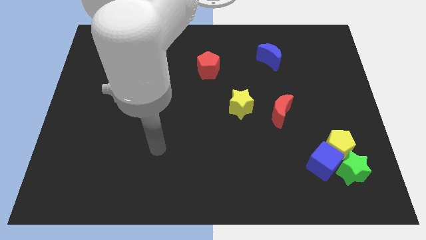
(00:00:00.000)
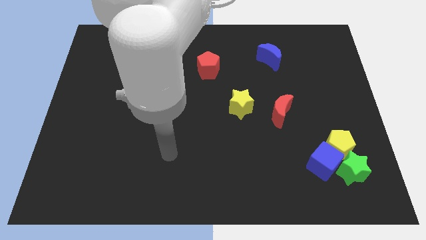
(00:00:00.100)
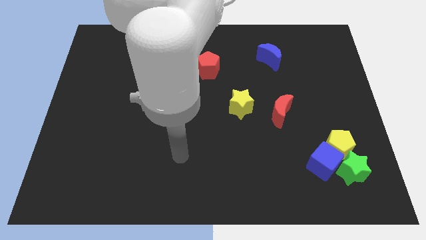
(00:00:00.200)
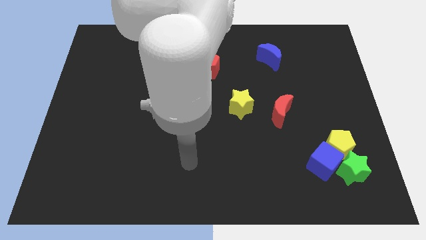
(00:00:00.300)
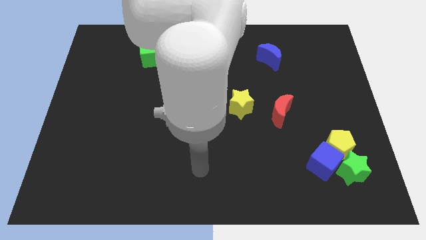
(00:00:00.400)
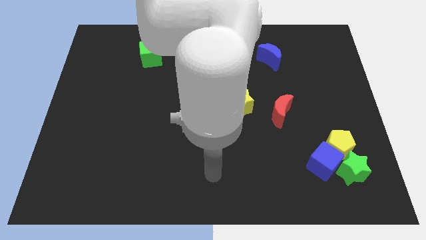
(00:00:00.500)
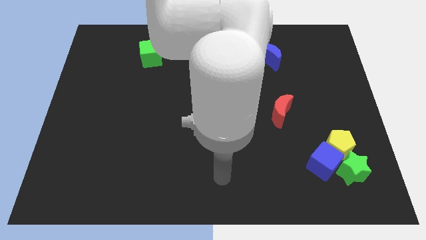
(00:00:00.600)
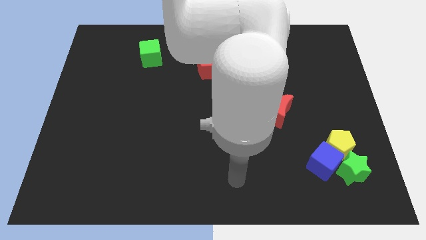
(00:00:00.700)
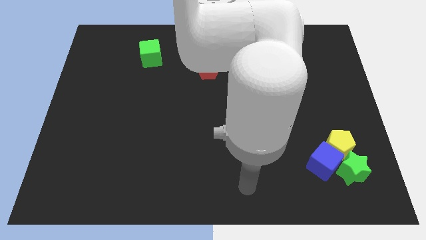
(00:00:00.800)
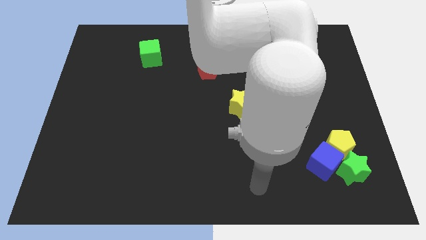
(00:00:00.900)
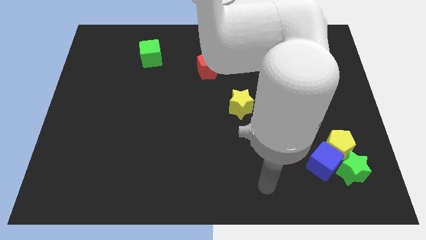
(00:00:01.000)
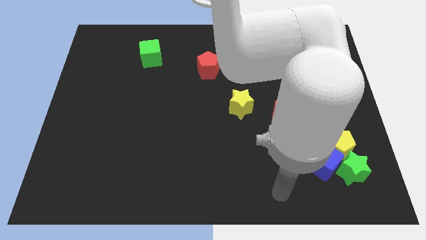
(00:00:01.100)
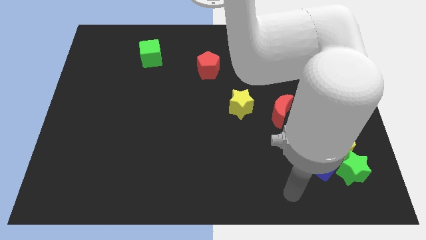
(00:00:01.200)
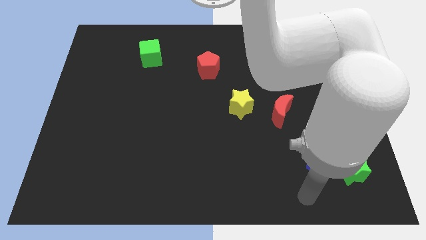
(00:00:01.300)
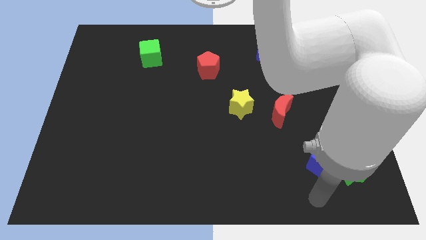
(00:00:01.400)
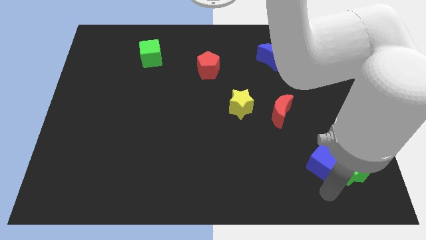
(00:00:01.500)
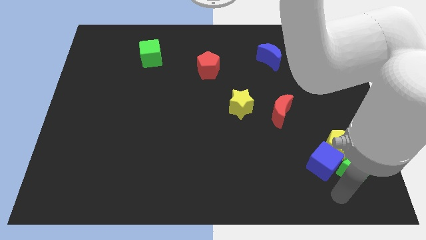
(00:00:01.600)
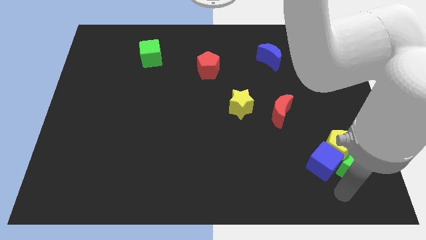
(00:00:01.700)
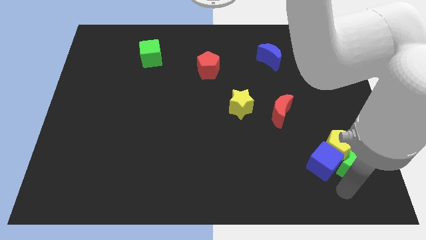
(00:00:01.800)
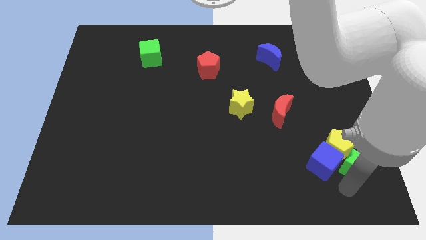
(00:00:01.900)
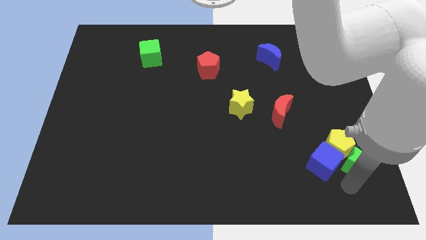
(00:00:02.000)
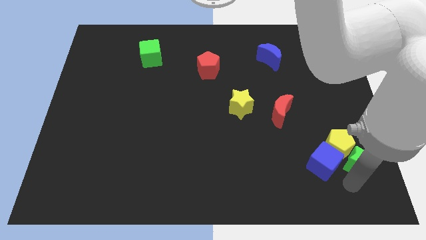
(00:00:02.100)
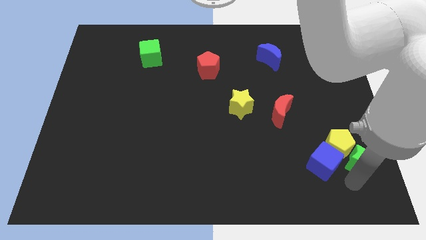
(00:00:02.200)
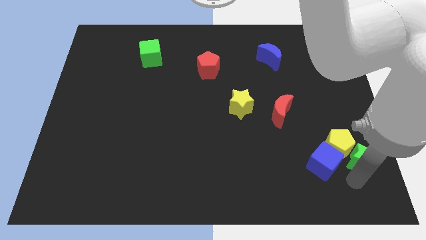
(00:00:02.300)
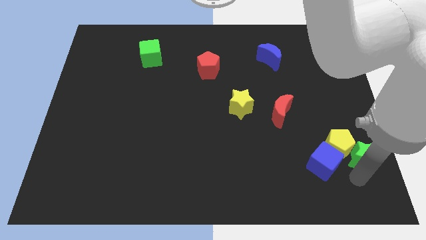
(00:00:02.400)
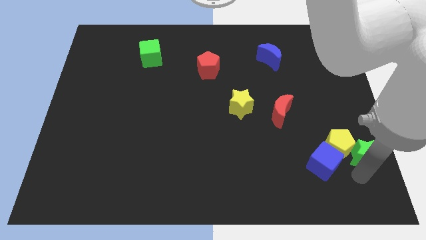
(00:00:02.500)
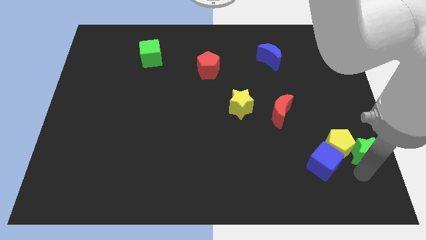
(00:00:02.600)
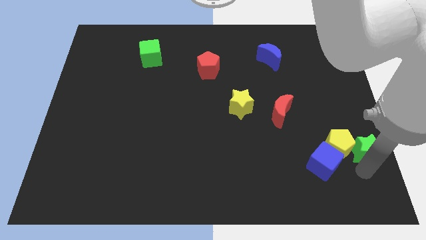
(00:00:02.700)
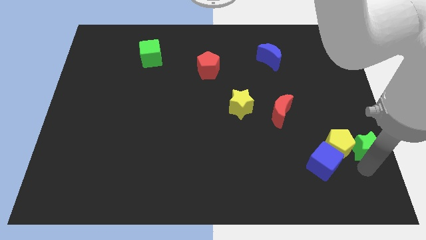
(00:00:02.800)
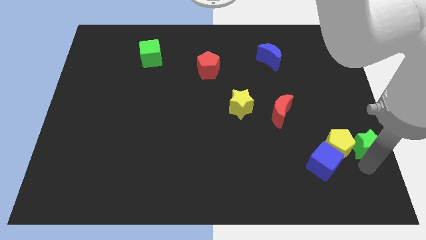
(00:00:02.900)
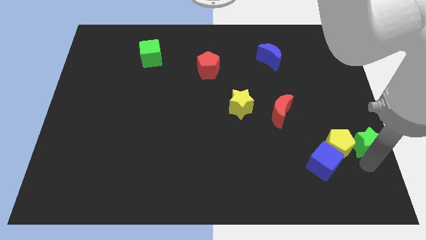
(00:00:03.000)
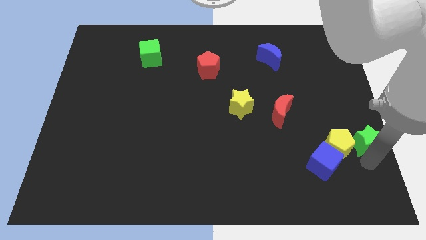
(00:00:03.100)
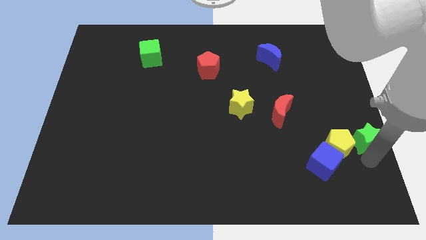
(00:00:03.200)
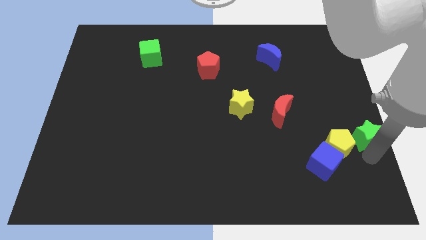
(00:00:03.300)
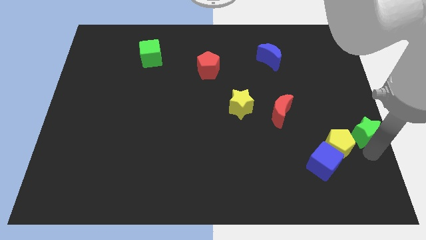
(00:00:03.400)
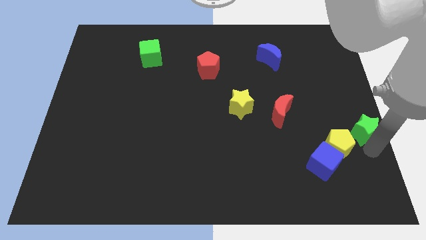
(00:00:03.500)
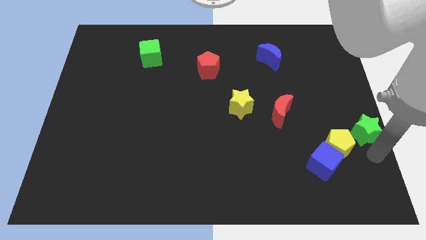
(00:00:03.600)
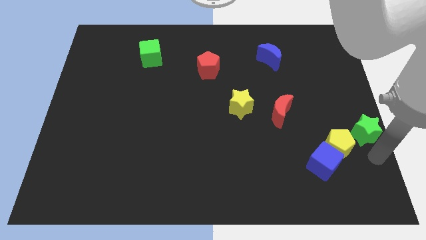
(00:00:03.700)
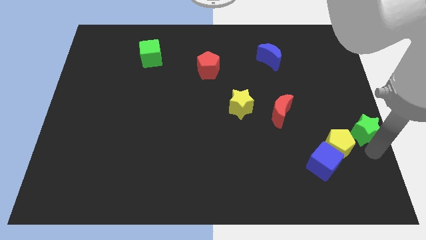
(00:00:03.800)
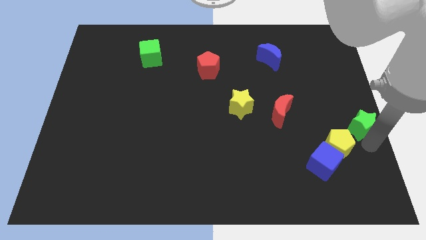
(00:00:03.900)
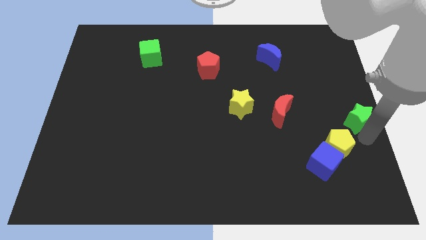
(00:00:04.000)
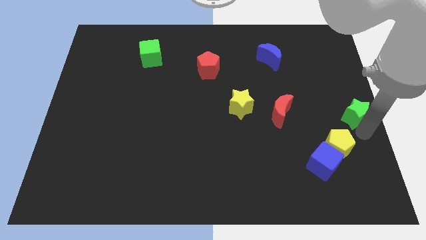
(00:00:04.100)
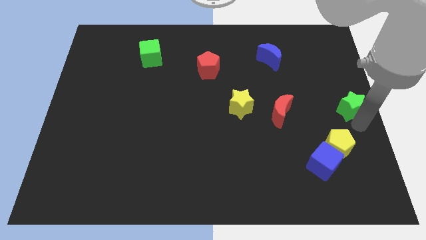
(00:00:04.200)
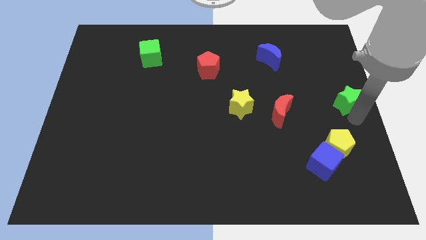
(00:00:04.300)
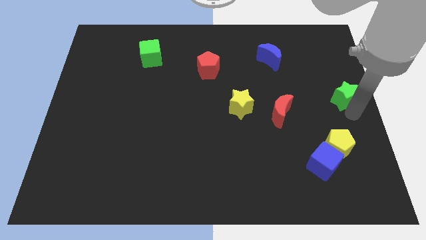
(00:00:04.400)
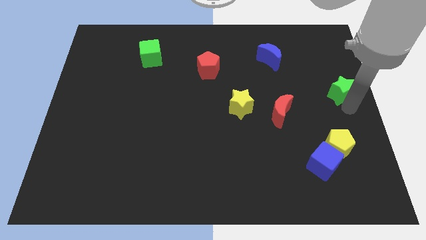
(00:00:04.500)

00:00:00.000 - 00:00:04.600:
slide the green star up

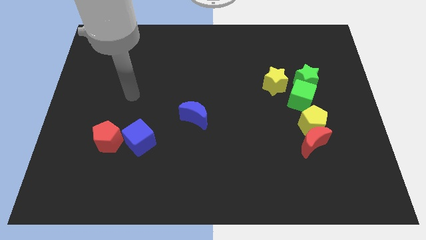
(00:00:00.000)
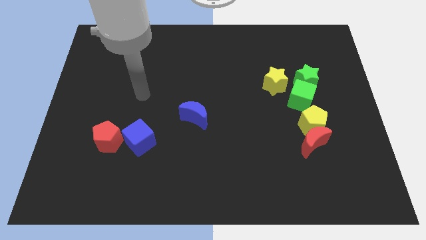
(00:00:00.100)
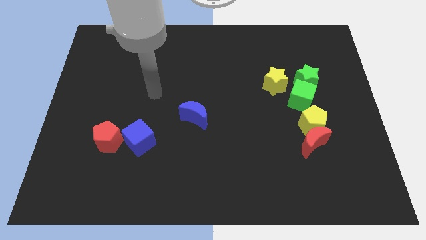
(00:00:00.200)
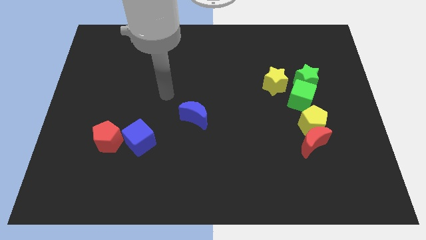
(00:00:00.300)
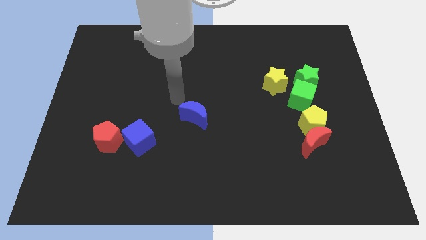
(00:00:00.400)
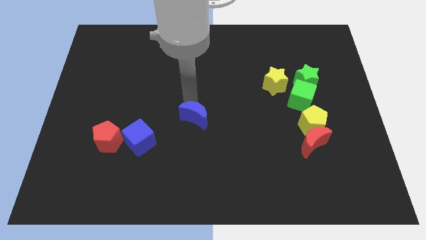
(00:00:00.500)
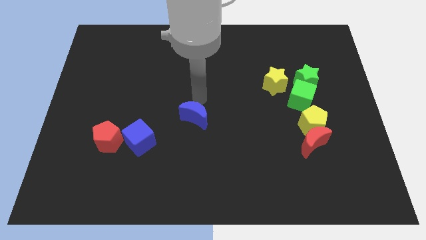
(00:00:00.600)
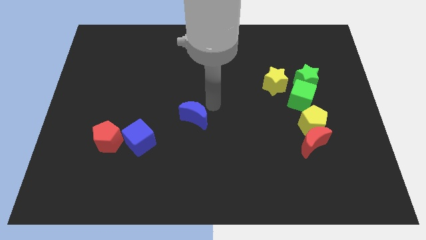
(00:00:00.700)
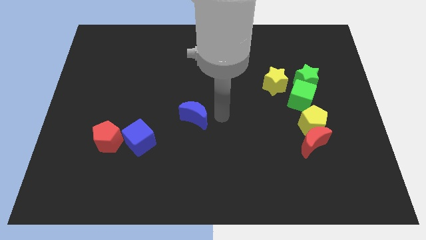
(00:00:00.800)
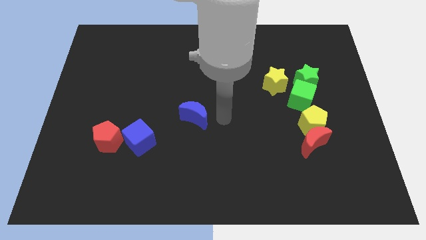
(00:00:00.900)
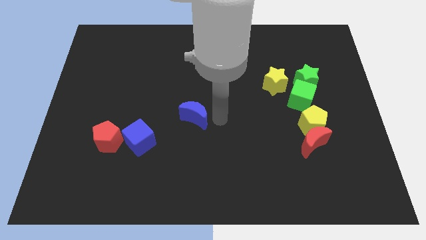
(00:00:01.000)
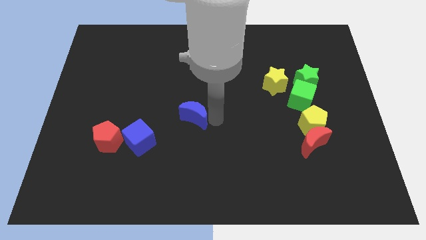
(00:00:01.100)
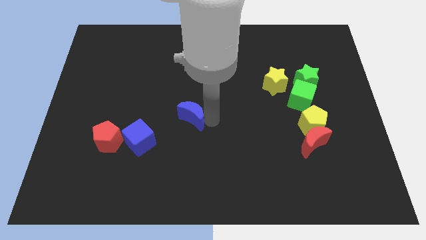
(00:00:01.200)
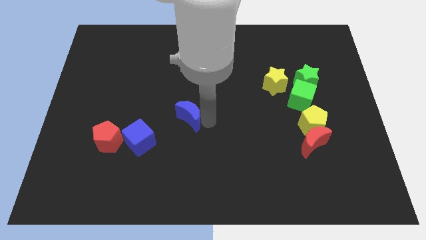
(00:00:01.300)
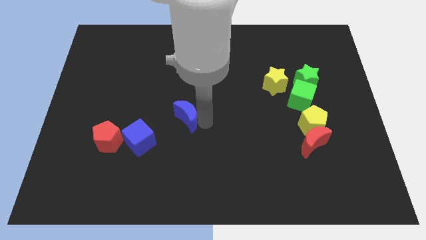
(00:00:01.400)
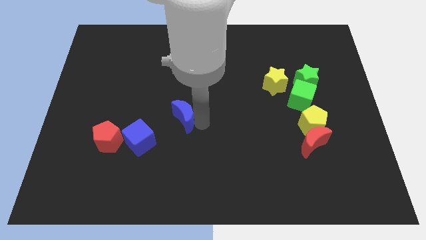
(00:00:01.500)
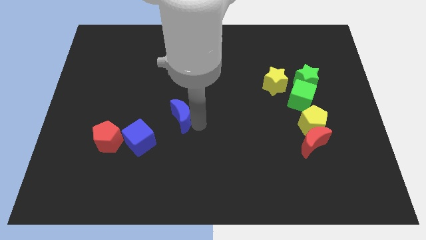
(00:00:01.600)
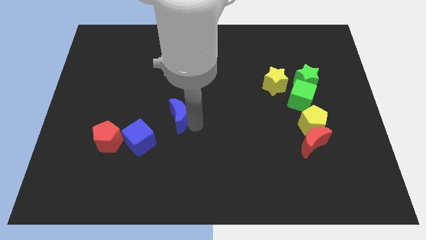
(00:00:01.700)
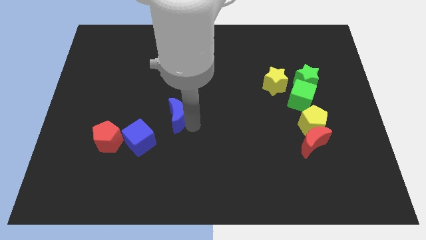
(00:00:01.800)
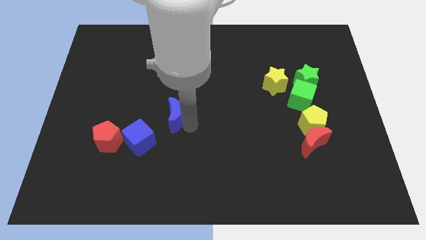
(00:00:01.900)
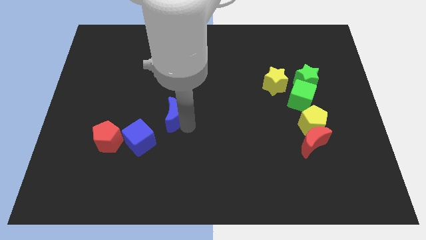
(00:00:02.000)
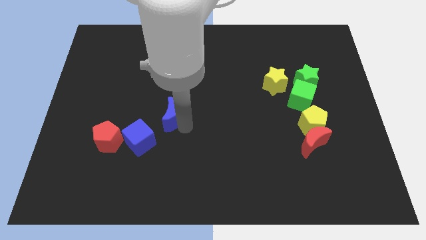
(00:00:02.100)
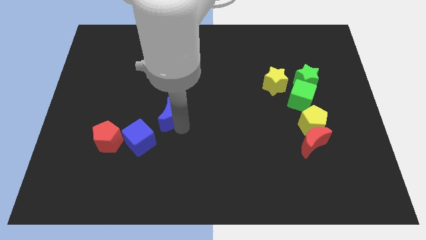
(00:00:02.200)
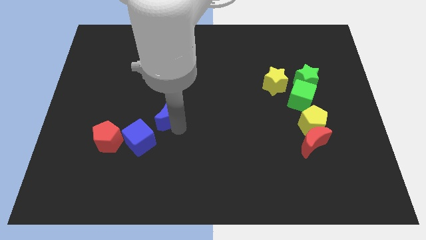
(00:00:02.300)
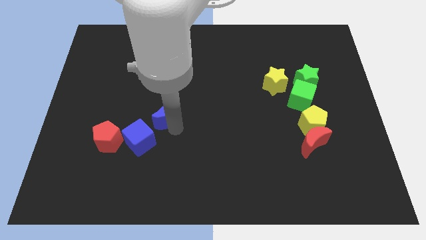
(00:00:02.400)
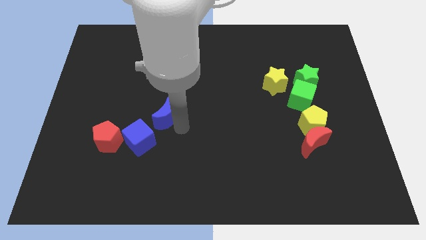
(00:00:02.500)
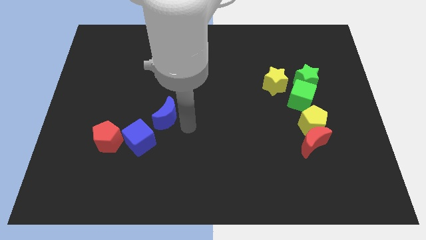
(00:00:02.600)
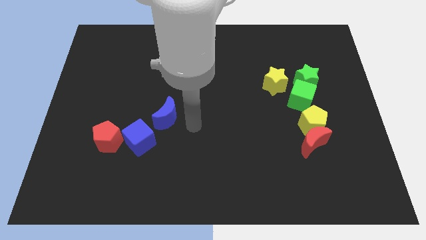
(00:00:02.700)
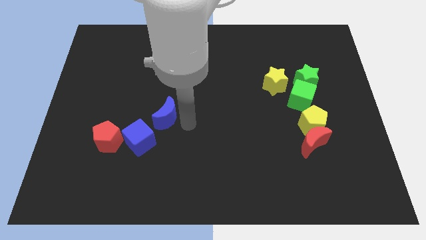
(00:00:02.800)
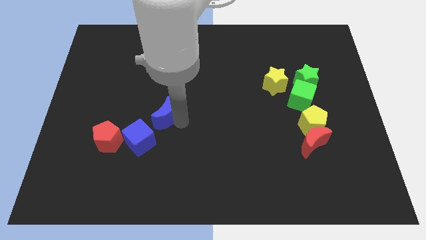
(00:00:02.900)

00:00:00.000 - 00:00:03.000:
push the blue moon to the left a bit

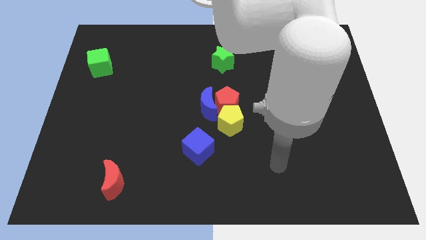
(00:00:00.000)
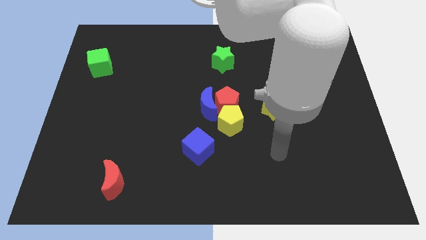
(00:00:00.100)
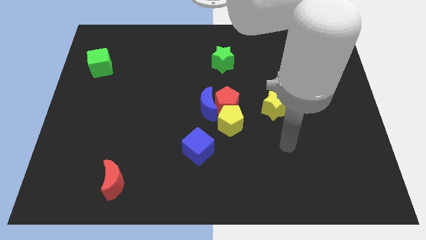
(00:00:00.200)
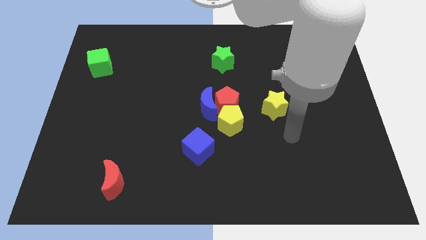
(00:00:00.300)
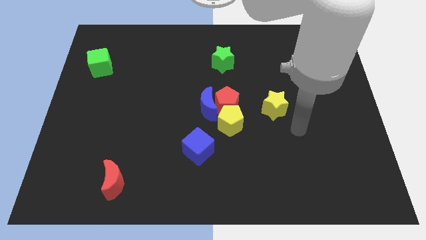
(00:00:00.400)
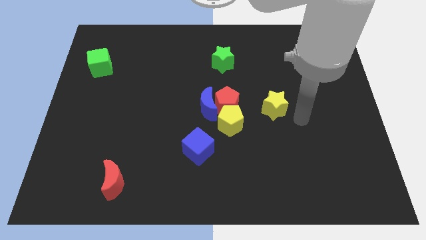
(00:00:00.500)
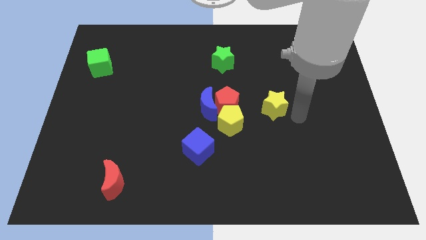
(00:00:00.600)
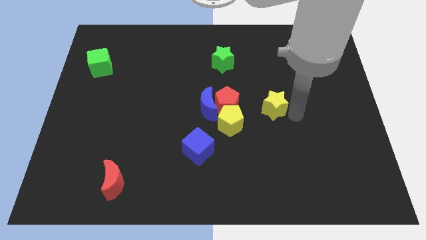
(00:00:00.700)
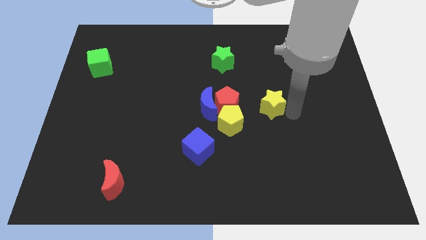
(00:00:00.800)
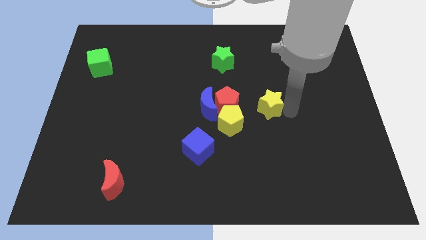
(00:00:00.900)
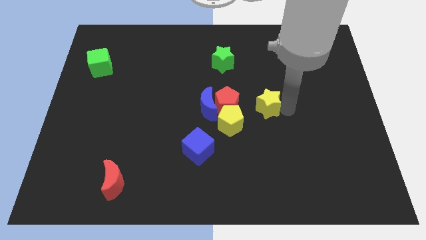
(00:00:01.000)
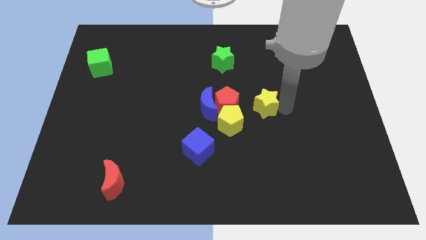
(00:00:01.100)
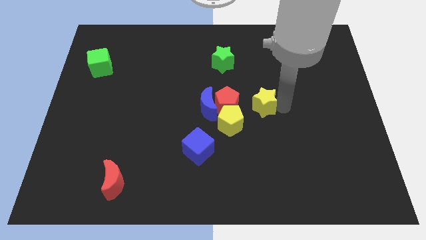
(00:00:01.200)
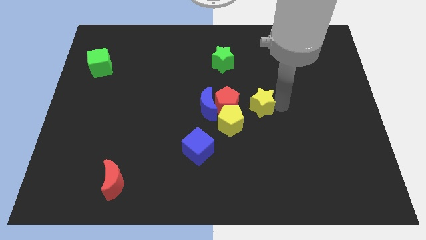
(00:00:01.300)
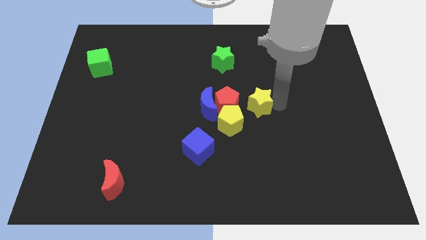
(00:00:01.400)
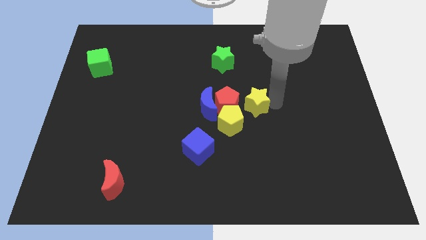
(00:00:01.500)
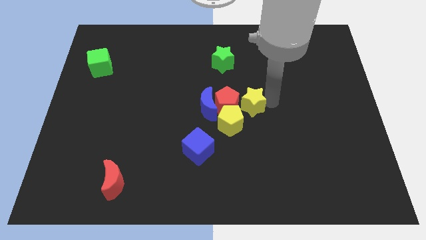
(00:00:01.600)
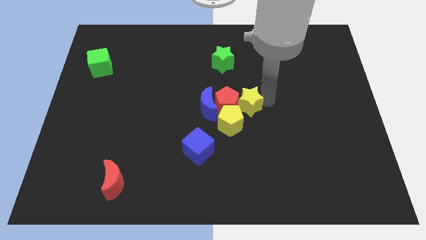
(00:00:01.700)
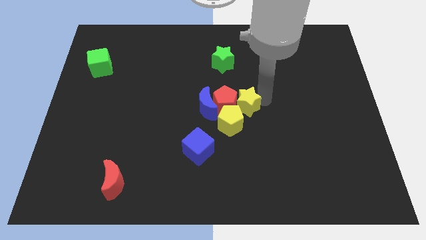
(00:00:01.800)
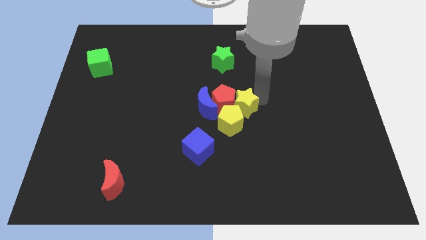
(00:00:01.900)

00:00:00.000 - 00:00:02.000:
slightly move the yellow star to the left
